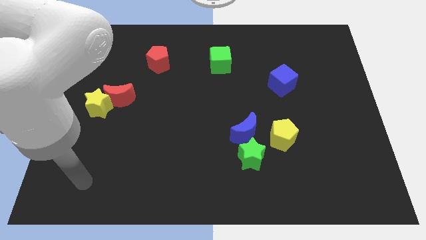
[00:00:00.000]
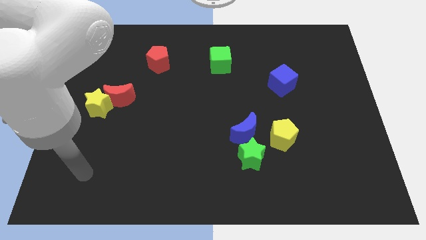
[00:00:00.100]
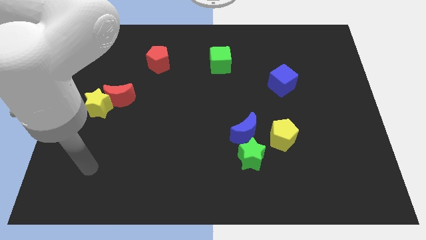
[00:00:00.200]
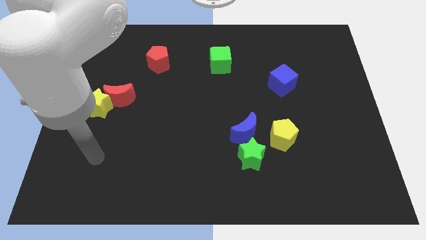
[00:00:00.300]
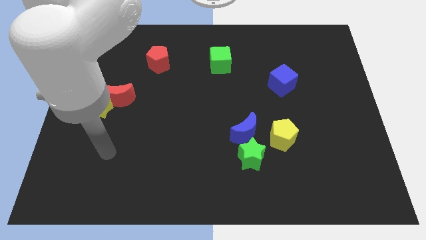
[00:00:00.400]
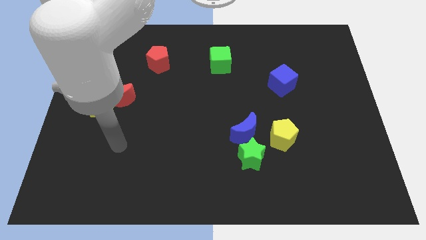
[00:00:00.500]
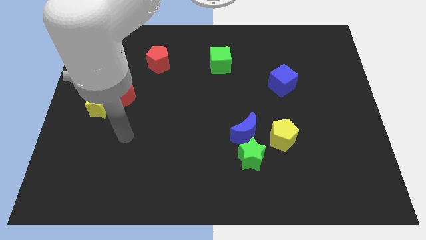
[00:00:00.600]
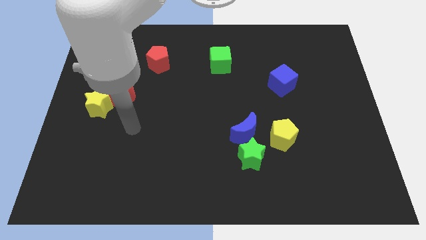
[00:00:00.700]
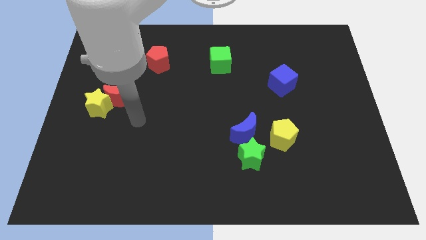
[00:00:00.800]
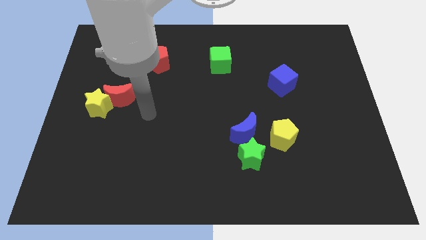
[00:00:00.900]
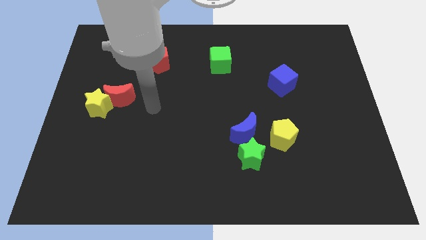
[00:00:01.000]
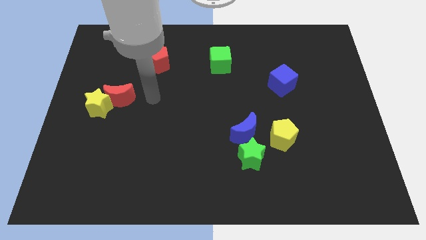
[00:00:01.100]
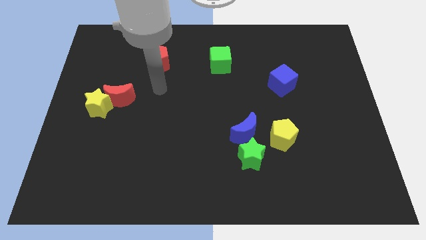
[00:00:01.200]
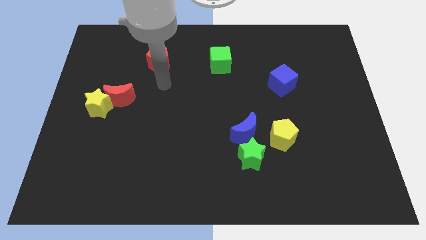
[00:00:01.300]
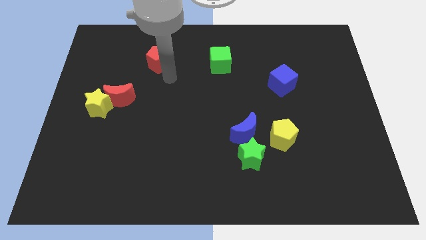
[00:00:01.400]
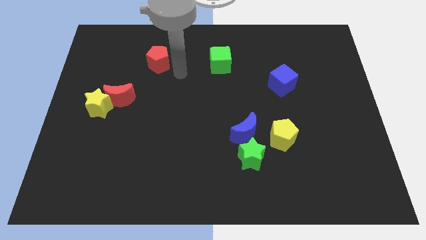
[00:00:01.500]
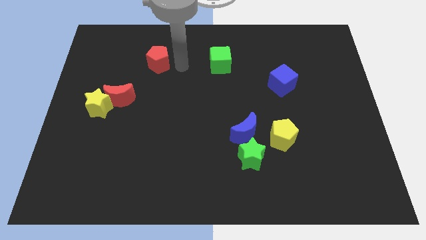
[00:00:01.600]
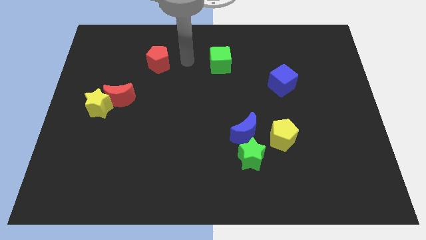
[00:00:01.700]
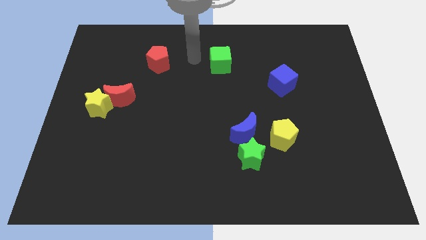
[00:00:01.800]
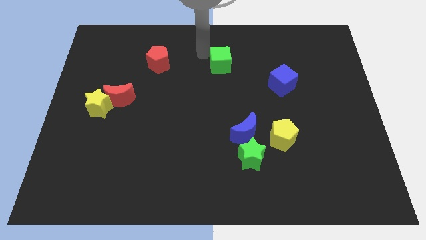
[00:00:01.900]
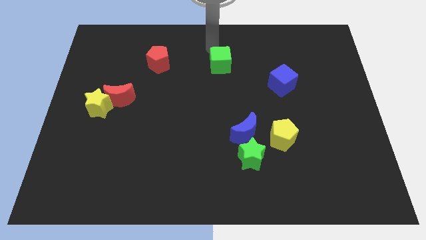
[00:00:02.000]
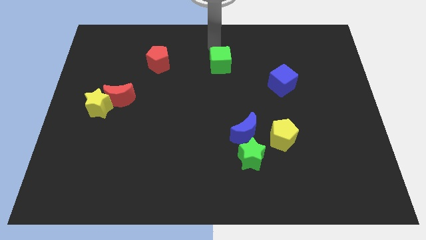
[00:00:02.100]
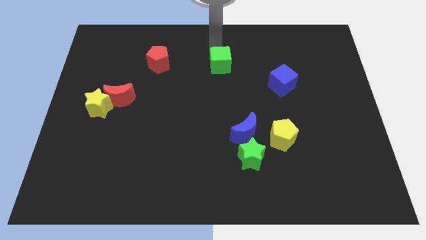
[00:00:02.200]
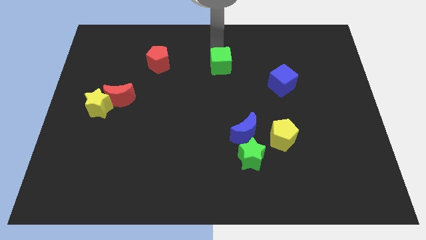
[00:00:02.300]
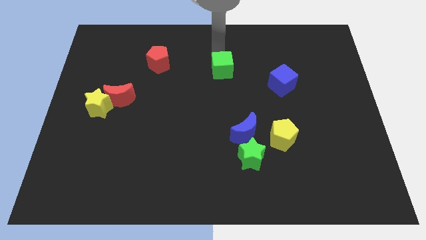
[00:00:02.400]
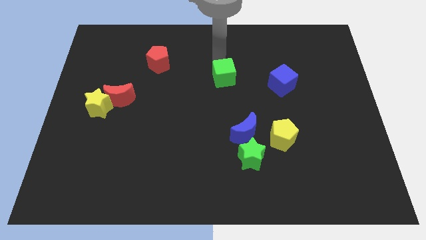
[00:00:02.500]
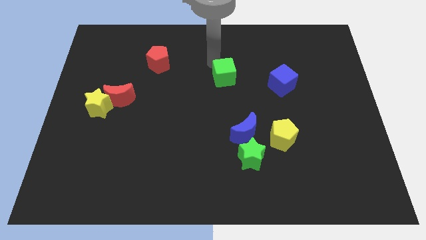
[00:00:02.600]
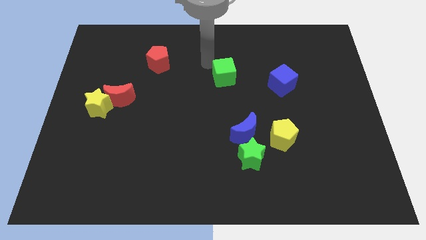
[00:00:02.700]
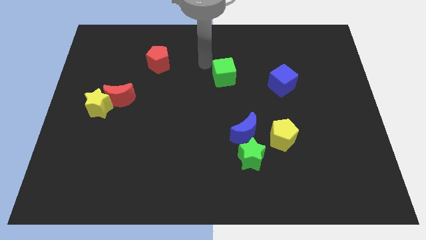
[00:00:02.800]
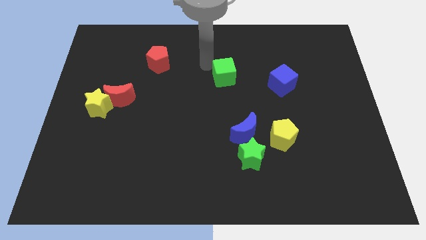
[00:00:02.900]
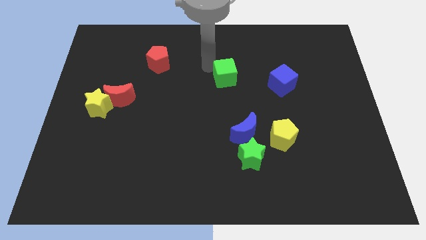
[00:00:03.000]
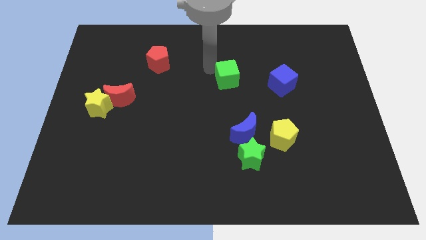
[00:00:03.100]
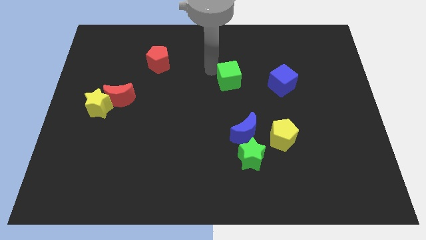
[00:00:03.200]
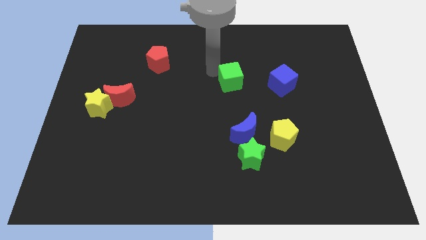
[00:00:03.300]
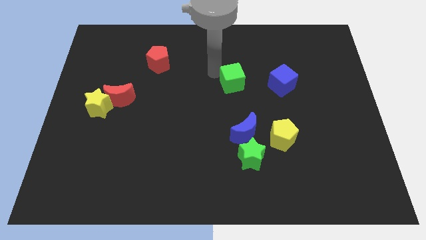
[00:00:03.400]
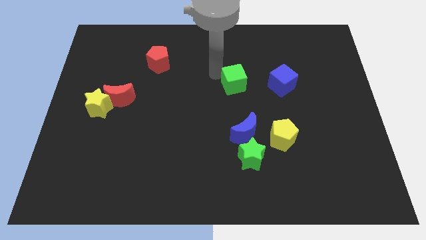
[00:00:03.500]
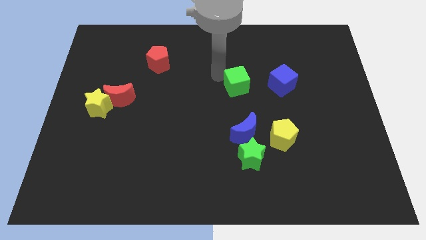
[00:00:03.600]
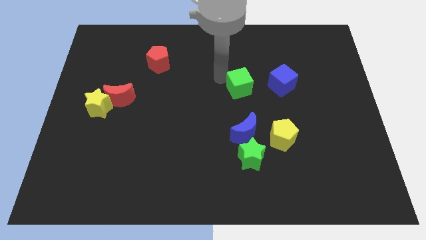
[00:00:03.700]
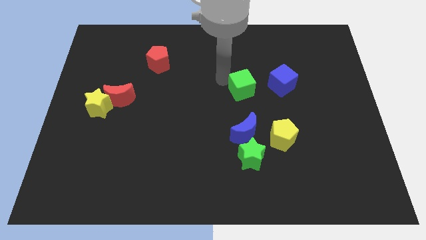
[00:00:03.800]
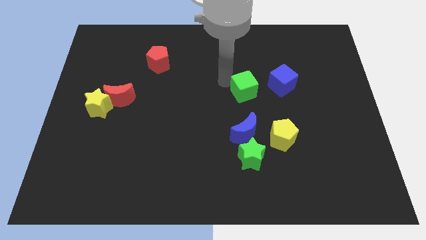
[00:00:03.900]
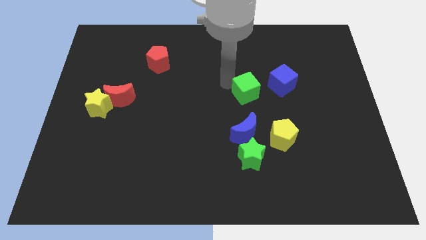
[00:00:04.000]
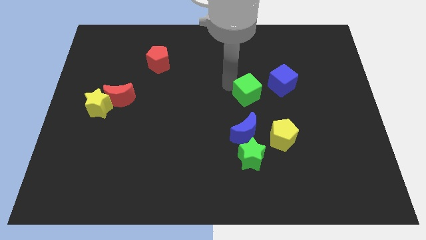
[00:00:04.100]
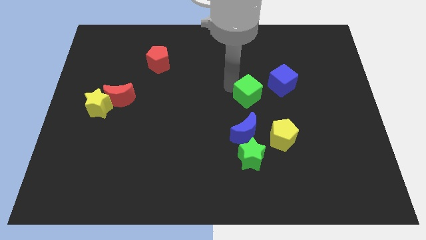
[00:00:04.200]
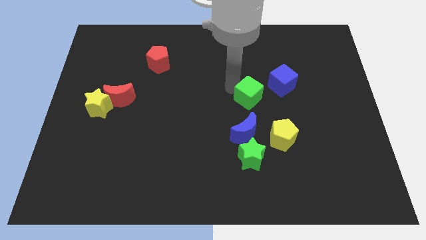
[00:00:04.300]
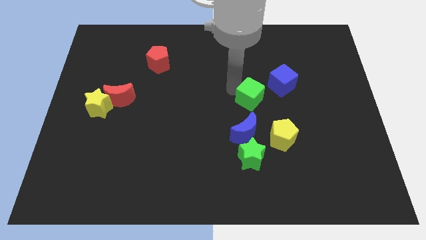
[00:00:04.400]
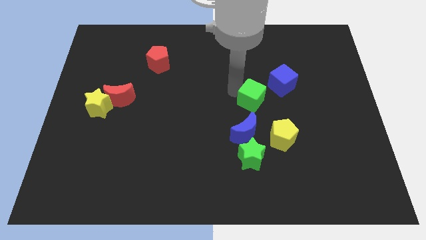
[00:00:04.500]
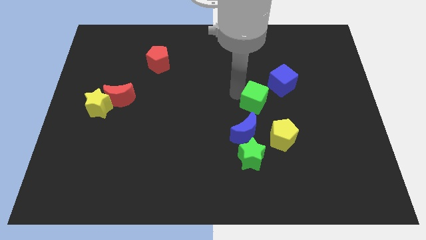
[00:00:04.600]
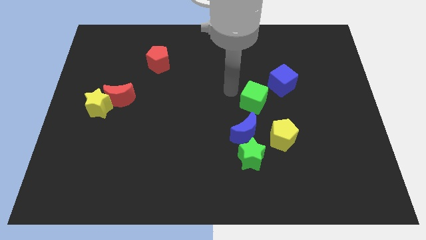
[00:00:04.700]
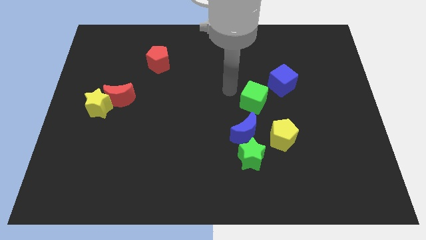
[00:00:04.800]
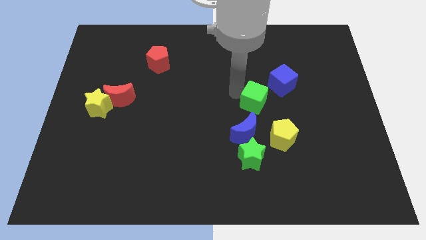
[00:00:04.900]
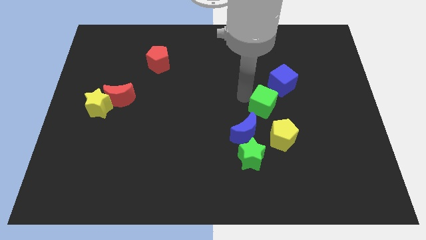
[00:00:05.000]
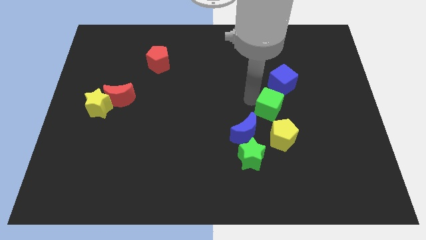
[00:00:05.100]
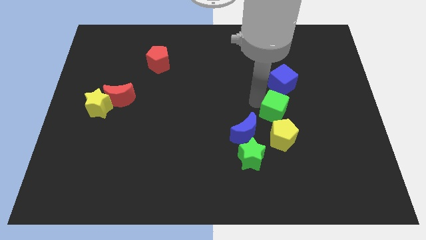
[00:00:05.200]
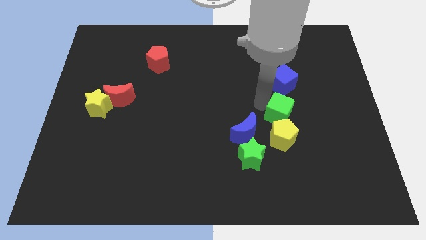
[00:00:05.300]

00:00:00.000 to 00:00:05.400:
move the green cube down and to the right diagonally

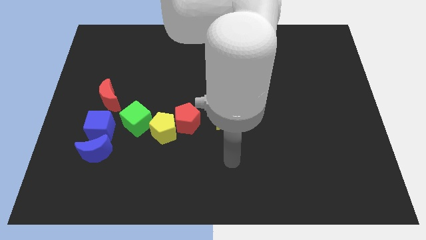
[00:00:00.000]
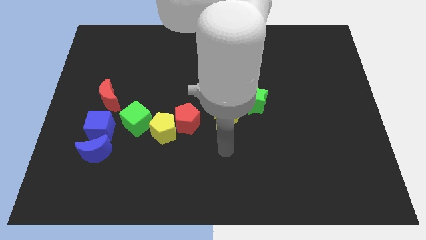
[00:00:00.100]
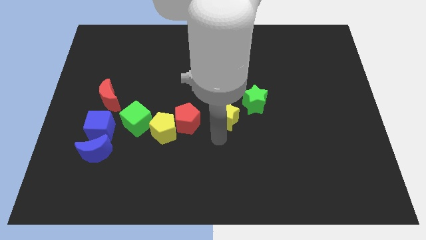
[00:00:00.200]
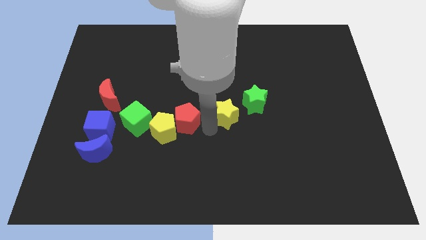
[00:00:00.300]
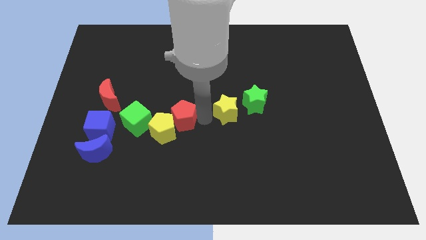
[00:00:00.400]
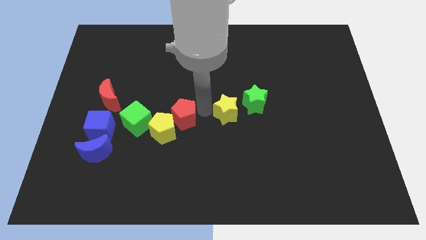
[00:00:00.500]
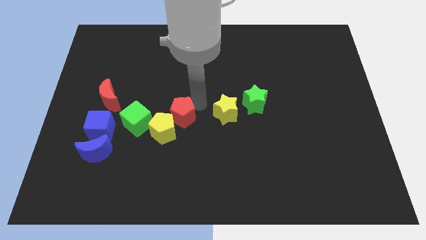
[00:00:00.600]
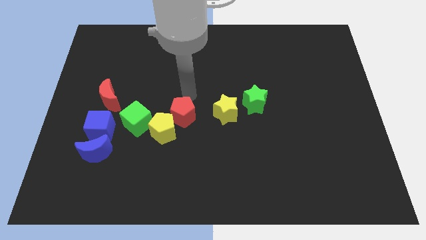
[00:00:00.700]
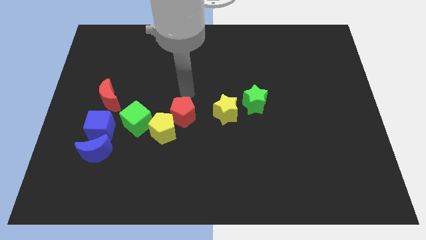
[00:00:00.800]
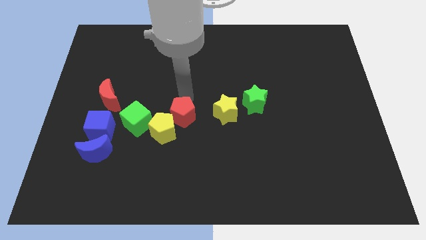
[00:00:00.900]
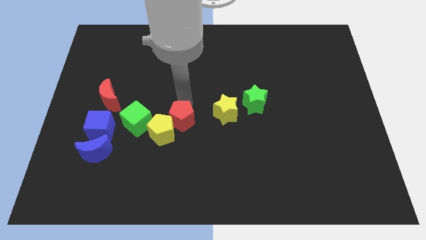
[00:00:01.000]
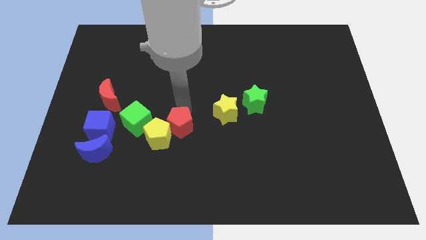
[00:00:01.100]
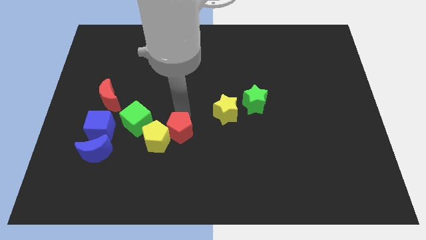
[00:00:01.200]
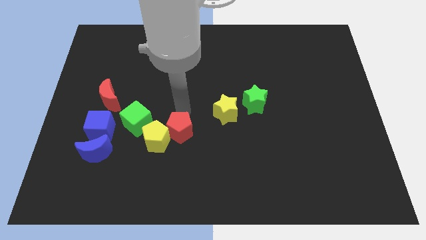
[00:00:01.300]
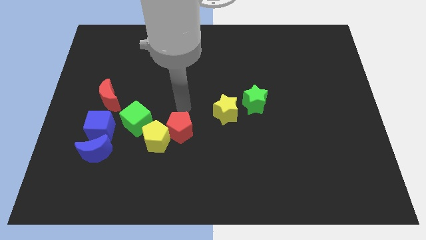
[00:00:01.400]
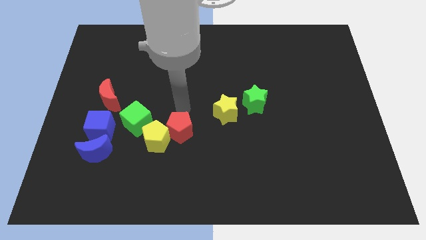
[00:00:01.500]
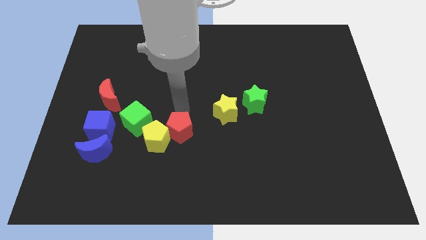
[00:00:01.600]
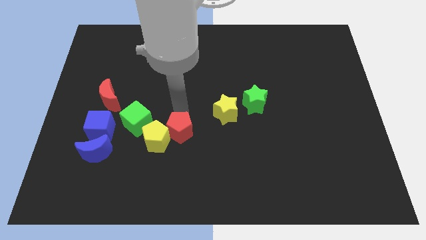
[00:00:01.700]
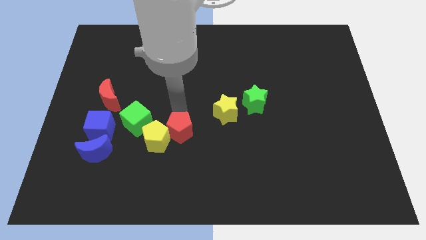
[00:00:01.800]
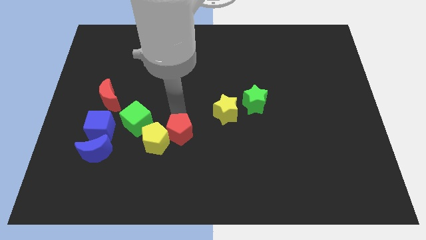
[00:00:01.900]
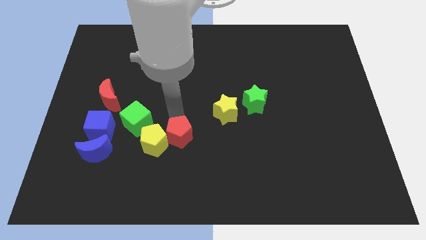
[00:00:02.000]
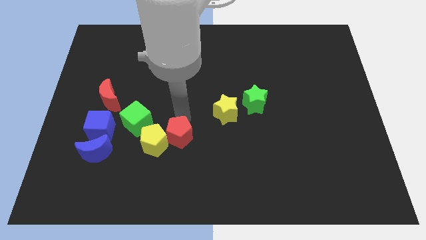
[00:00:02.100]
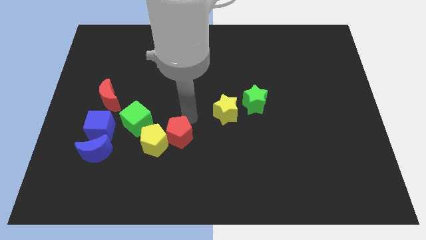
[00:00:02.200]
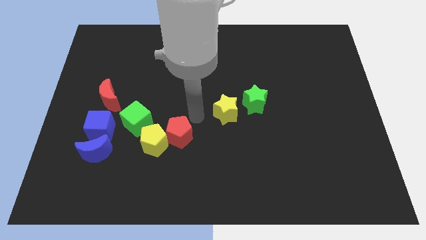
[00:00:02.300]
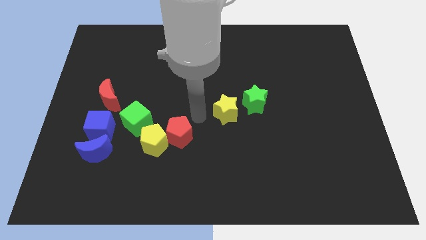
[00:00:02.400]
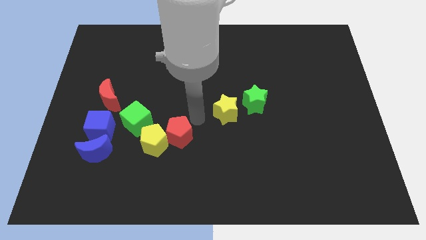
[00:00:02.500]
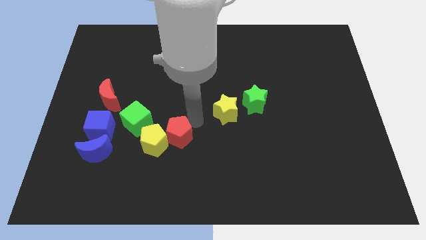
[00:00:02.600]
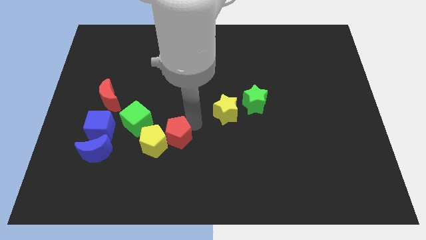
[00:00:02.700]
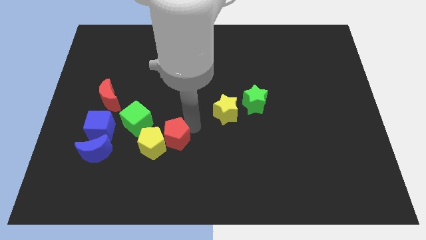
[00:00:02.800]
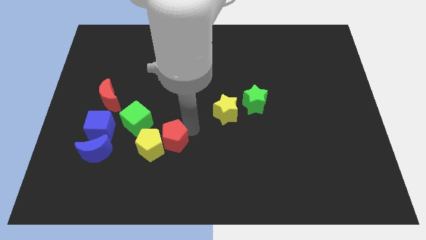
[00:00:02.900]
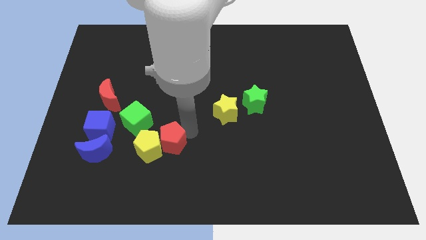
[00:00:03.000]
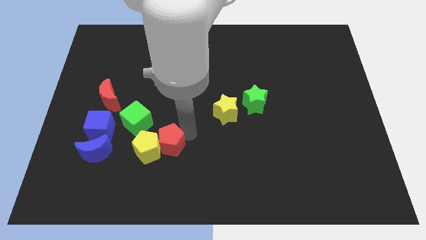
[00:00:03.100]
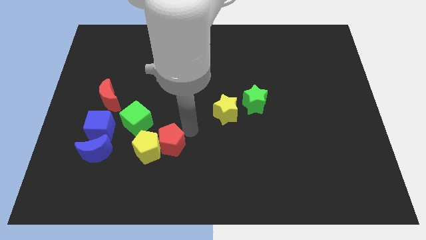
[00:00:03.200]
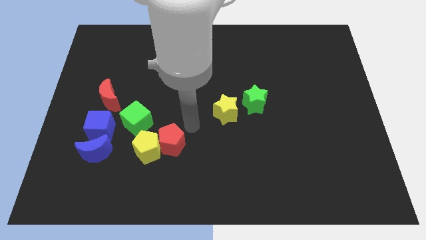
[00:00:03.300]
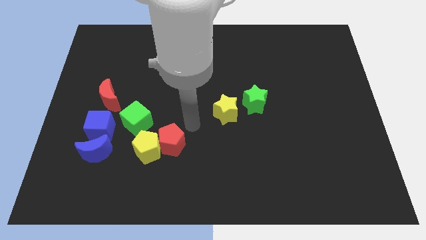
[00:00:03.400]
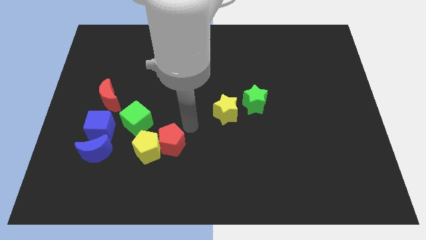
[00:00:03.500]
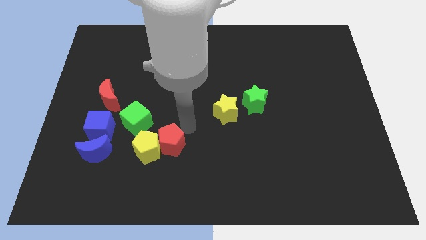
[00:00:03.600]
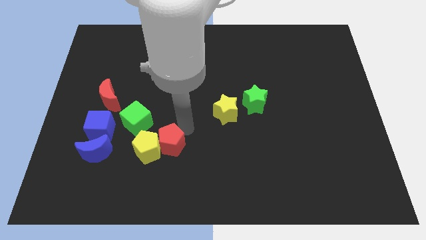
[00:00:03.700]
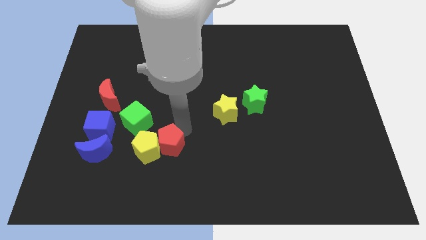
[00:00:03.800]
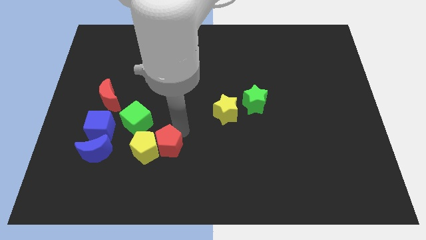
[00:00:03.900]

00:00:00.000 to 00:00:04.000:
push the red pentagon down and then to the left a little
